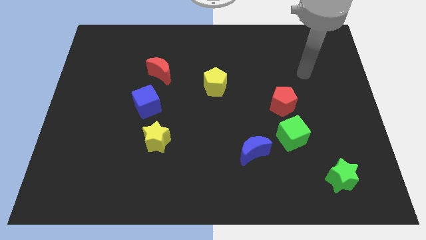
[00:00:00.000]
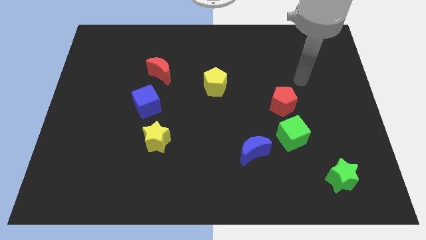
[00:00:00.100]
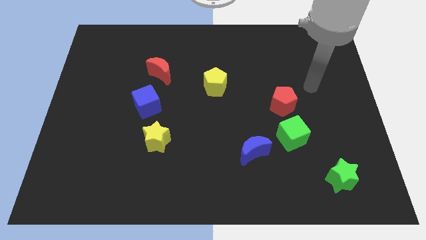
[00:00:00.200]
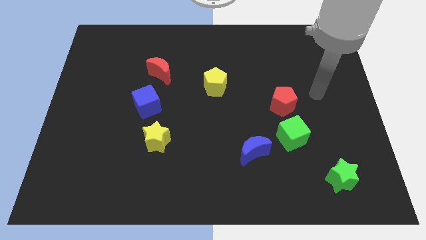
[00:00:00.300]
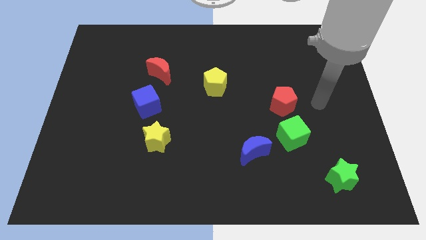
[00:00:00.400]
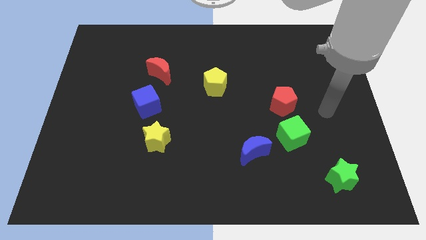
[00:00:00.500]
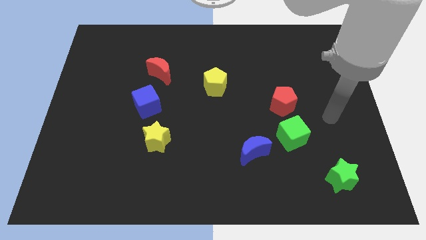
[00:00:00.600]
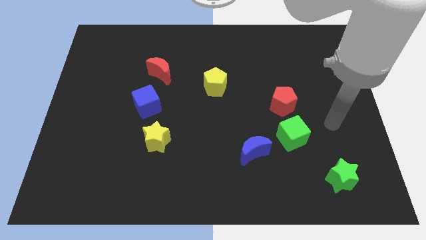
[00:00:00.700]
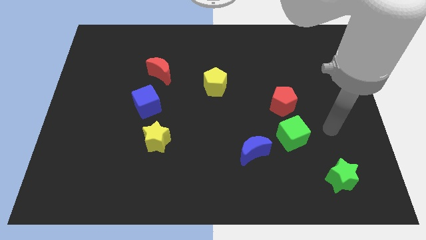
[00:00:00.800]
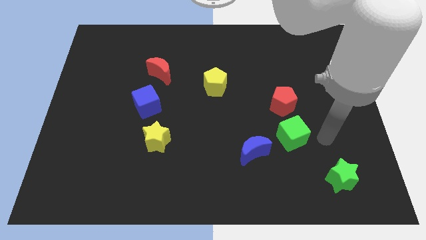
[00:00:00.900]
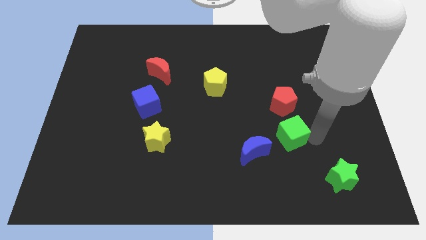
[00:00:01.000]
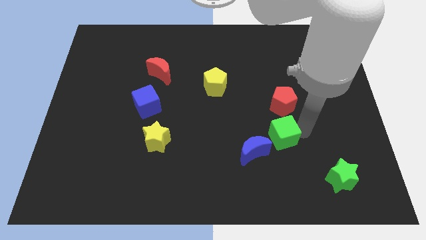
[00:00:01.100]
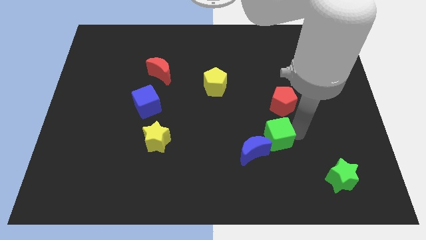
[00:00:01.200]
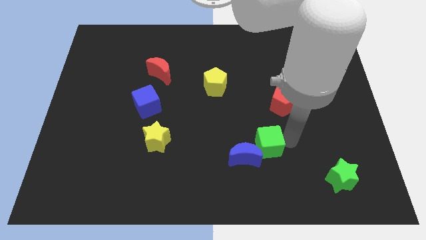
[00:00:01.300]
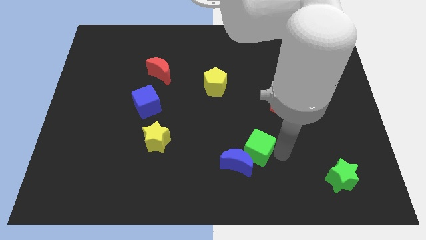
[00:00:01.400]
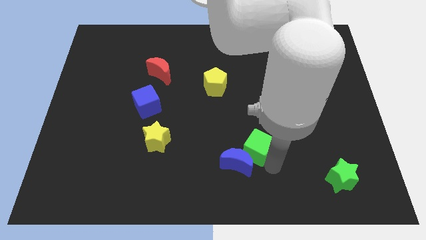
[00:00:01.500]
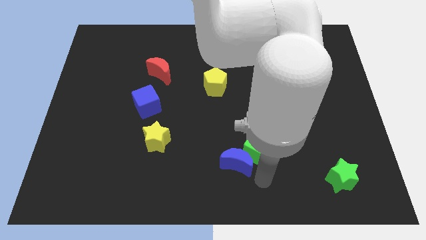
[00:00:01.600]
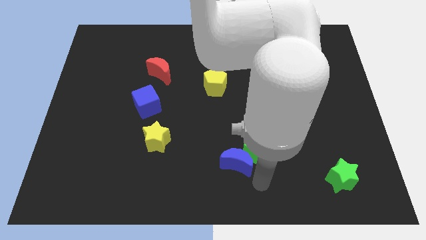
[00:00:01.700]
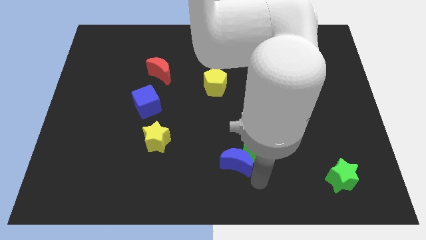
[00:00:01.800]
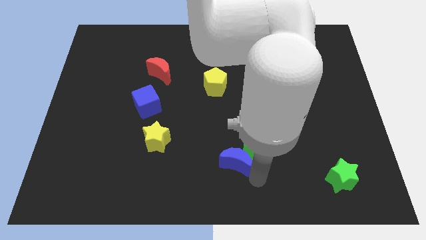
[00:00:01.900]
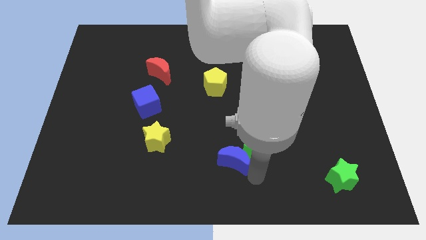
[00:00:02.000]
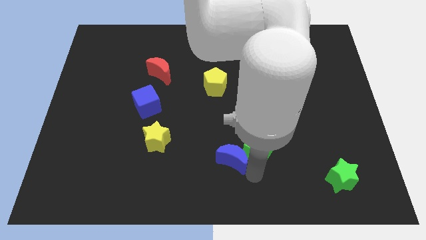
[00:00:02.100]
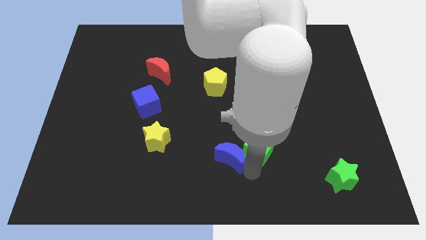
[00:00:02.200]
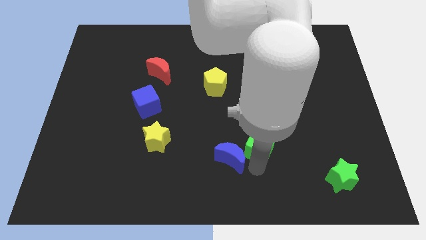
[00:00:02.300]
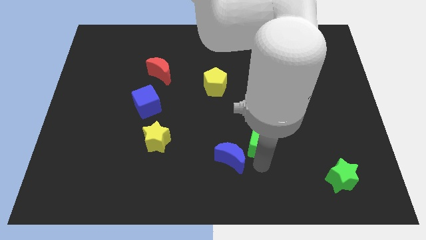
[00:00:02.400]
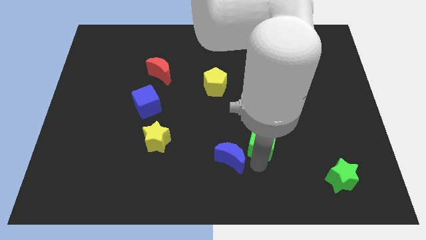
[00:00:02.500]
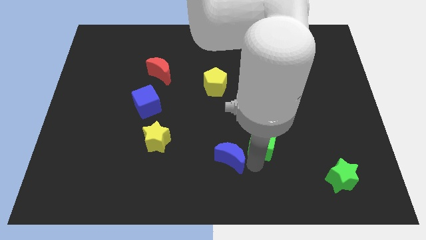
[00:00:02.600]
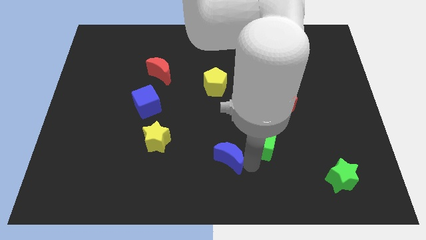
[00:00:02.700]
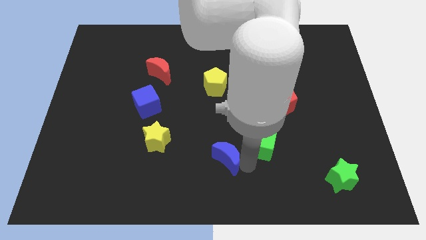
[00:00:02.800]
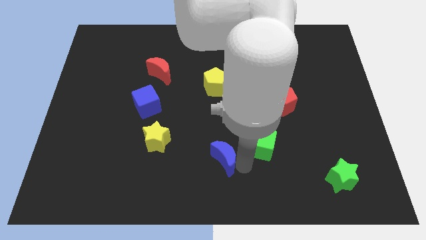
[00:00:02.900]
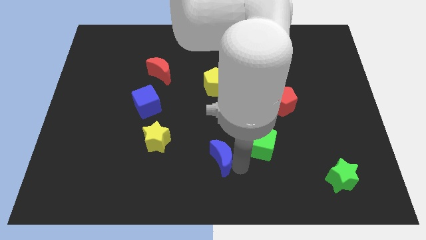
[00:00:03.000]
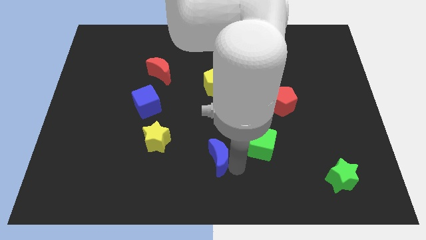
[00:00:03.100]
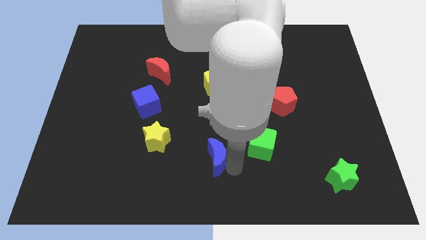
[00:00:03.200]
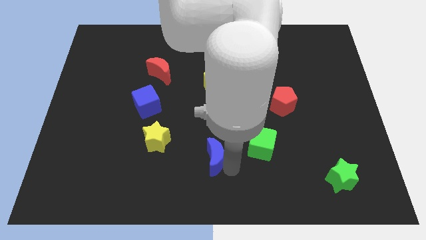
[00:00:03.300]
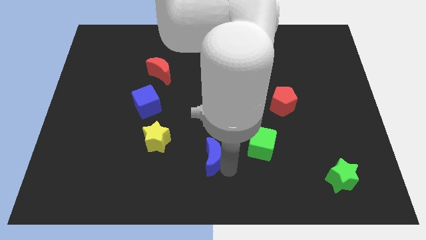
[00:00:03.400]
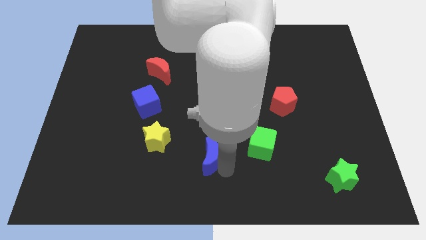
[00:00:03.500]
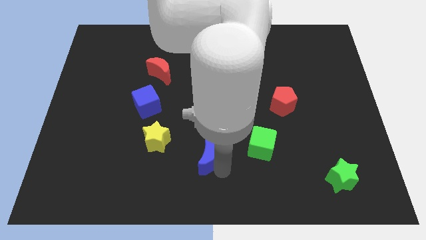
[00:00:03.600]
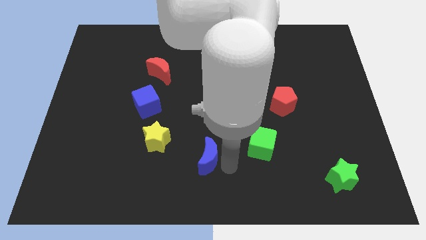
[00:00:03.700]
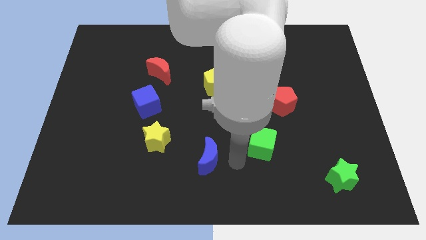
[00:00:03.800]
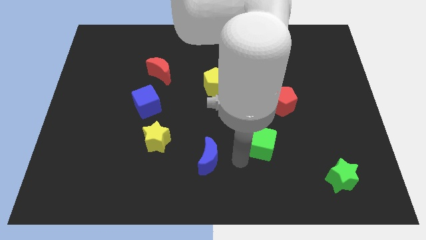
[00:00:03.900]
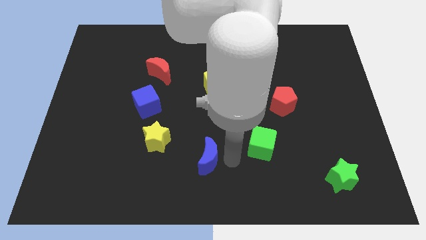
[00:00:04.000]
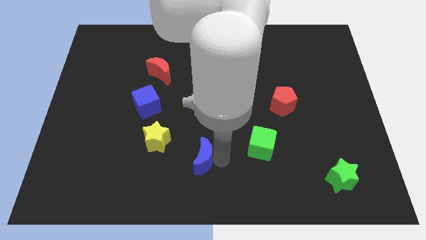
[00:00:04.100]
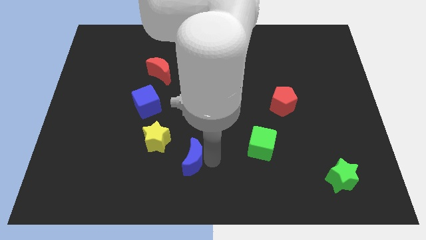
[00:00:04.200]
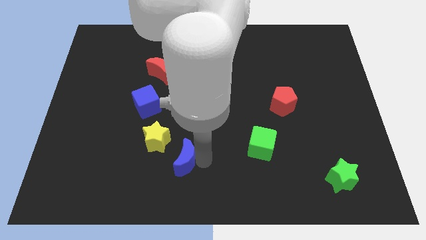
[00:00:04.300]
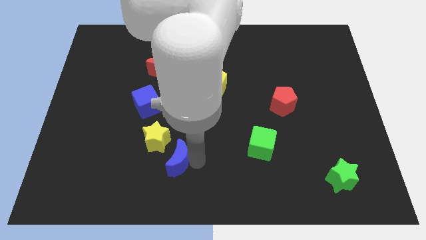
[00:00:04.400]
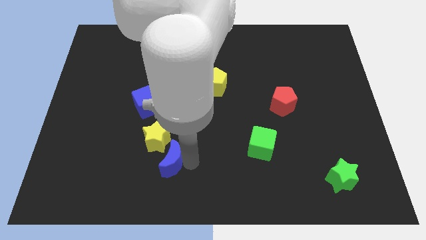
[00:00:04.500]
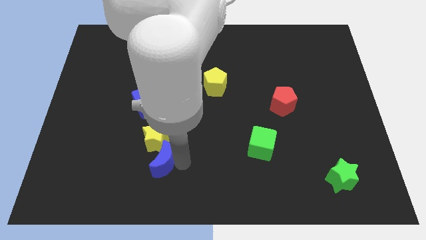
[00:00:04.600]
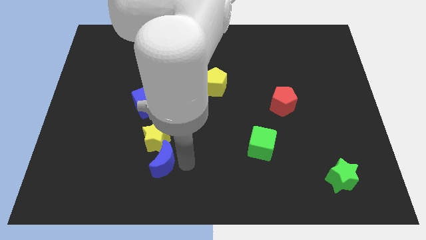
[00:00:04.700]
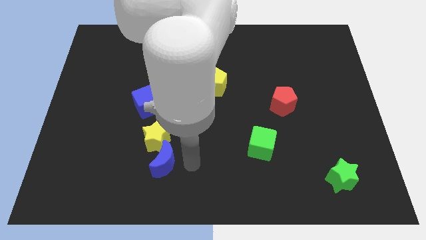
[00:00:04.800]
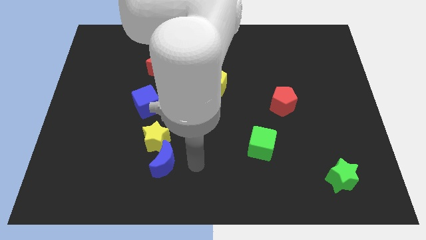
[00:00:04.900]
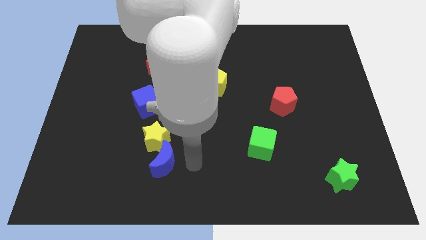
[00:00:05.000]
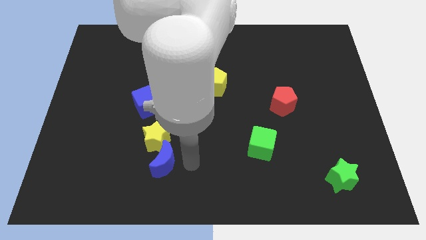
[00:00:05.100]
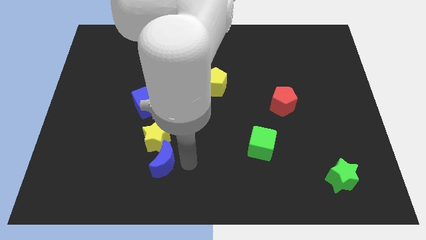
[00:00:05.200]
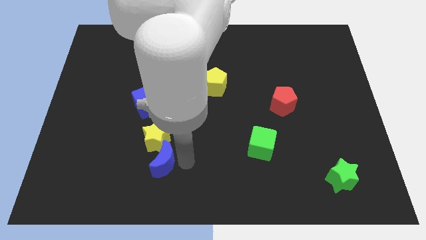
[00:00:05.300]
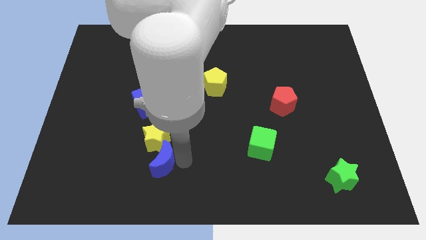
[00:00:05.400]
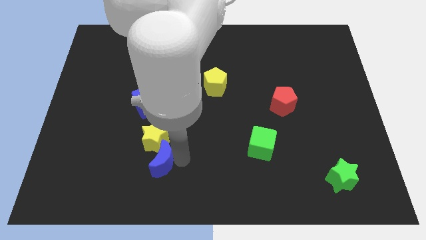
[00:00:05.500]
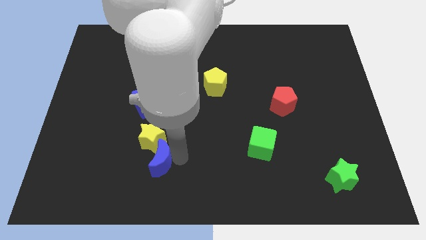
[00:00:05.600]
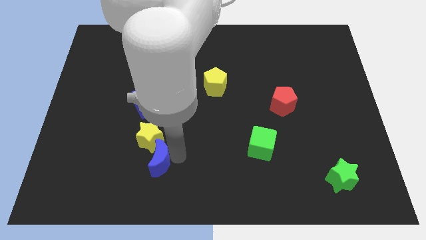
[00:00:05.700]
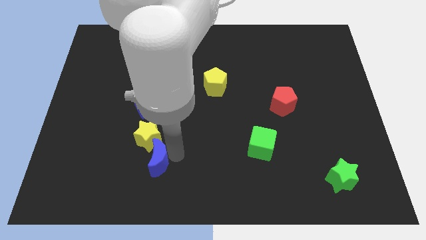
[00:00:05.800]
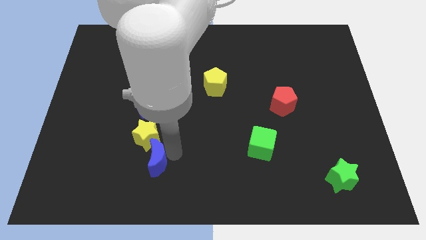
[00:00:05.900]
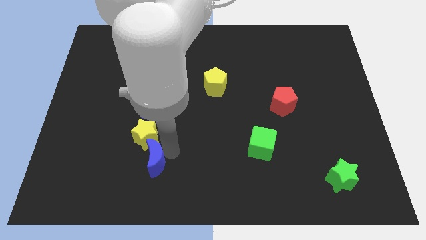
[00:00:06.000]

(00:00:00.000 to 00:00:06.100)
push the blue moon to the bottom side of the blue cube
